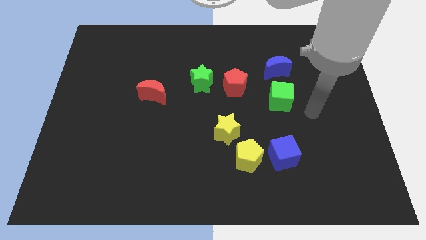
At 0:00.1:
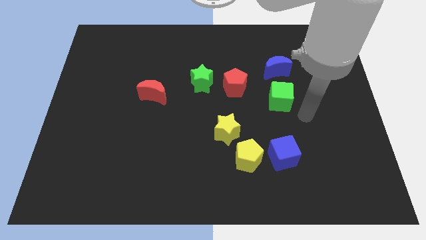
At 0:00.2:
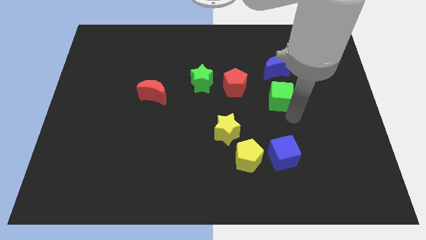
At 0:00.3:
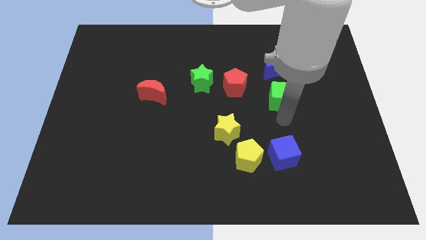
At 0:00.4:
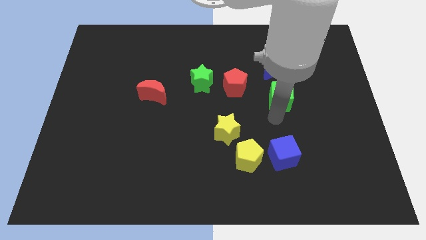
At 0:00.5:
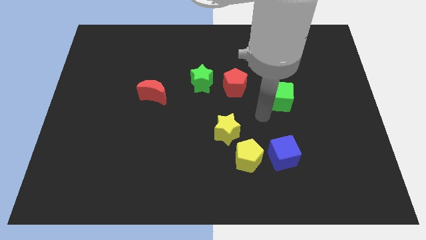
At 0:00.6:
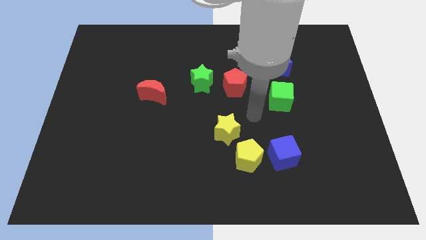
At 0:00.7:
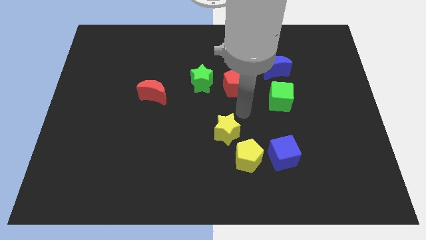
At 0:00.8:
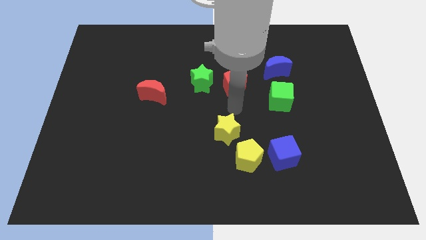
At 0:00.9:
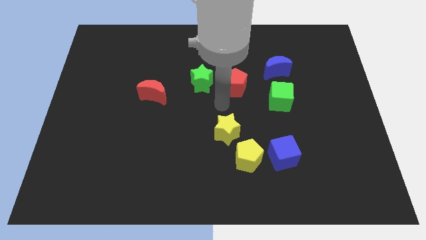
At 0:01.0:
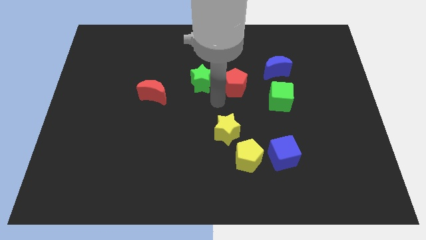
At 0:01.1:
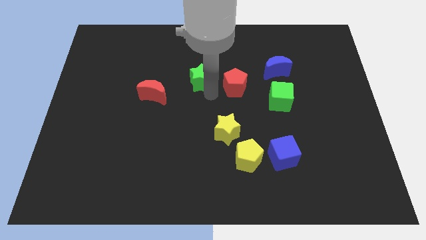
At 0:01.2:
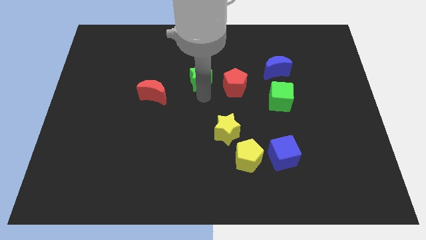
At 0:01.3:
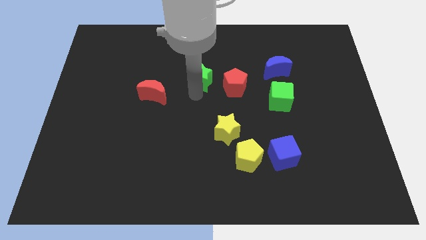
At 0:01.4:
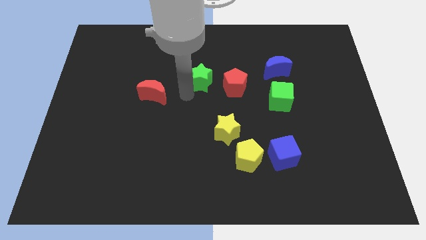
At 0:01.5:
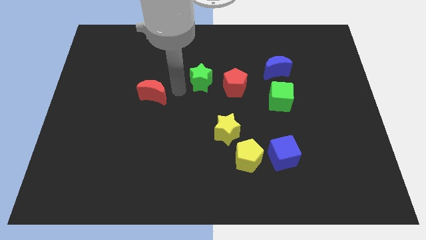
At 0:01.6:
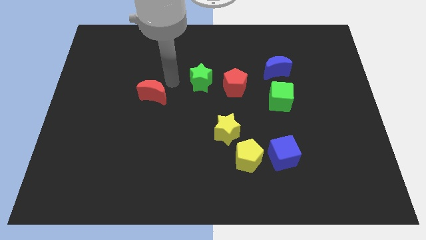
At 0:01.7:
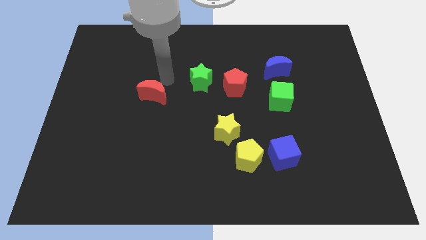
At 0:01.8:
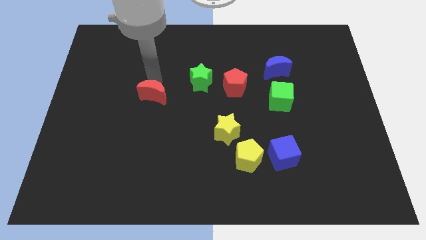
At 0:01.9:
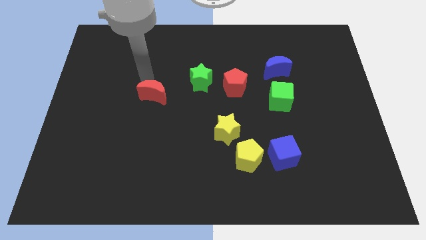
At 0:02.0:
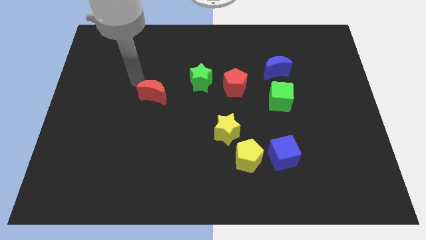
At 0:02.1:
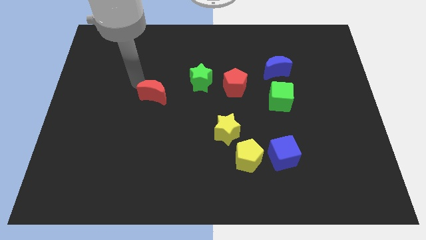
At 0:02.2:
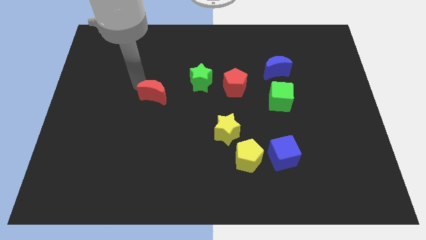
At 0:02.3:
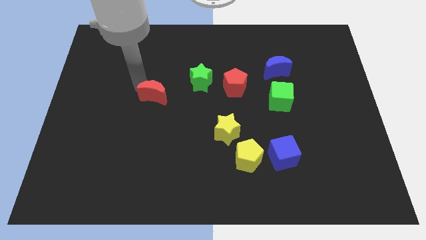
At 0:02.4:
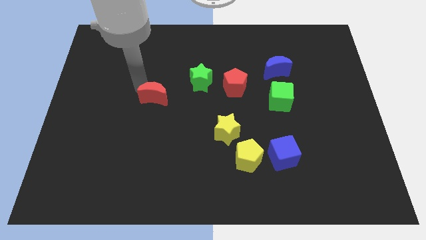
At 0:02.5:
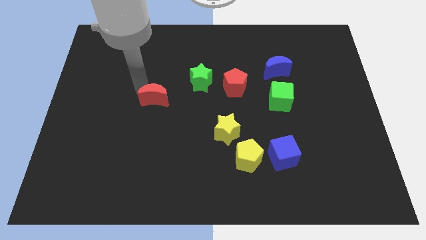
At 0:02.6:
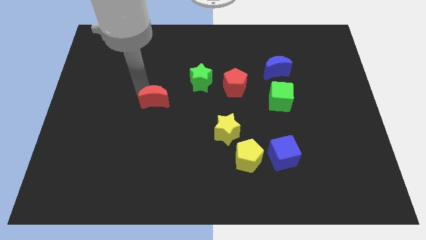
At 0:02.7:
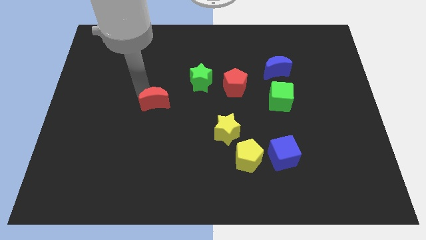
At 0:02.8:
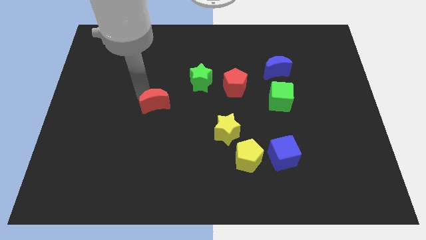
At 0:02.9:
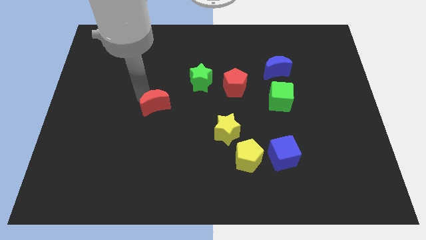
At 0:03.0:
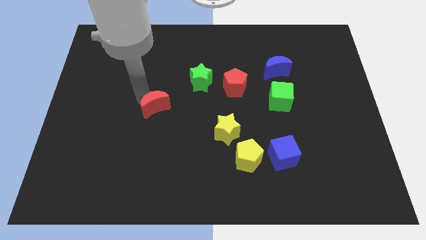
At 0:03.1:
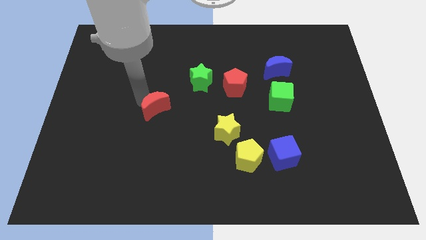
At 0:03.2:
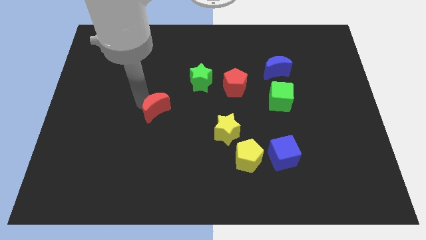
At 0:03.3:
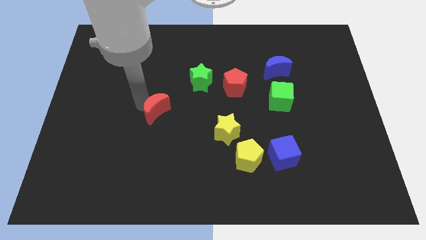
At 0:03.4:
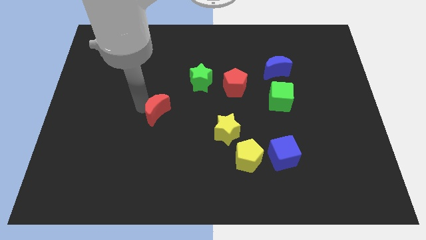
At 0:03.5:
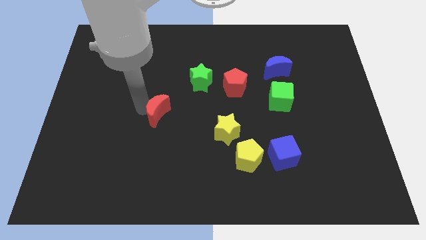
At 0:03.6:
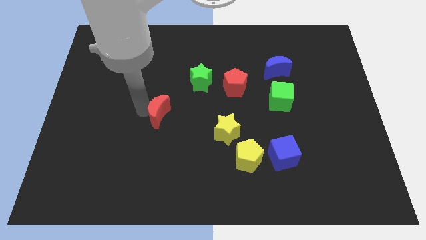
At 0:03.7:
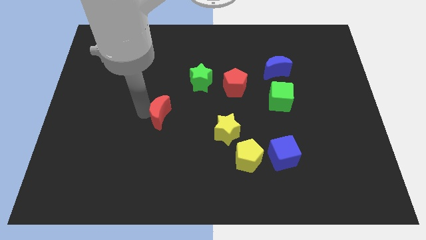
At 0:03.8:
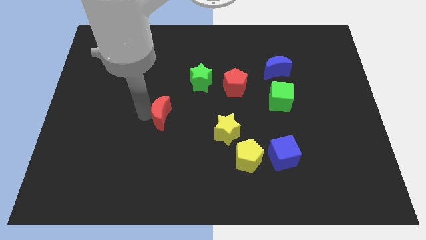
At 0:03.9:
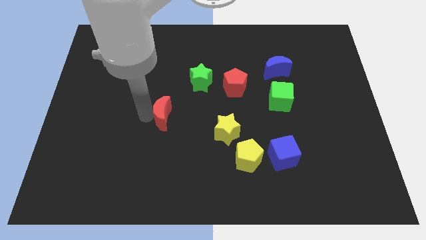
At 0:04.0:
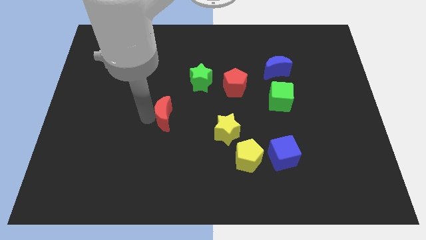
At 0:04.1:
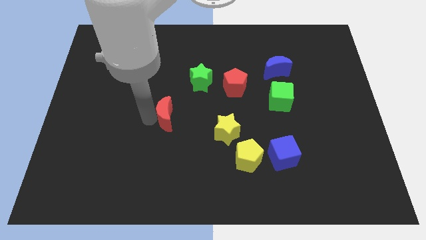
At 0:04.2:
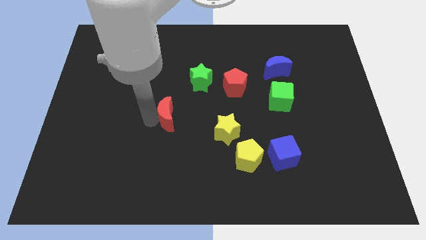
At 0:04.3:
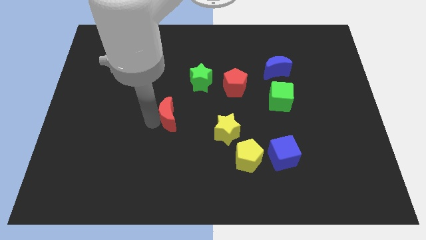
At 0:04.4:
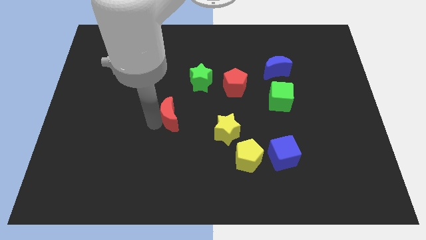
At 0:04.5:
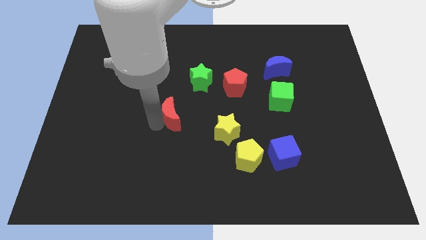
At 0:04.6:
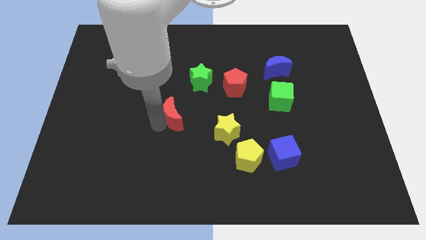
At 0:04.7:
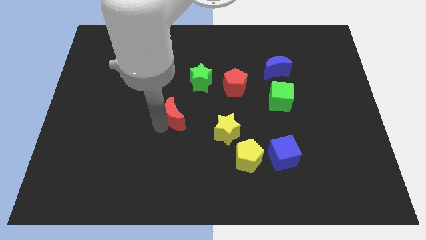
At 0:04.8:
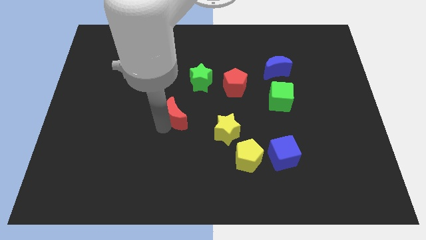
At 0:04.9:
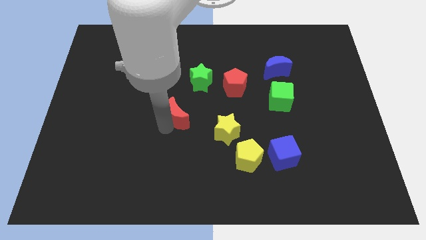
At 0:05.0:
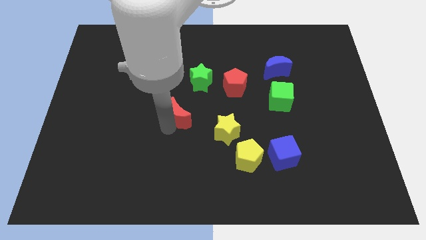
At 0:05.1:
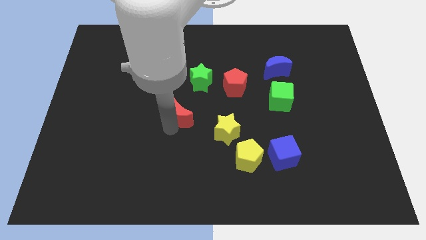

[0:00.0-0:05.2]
move the red moon to the bottom of the green star

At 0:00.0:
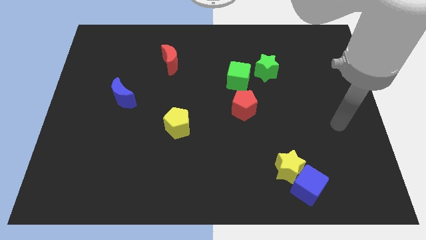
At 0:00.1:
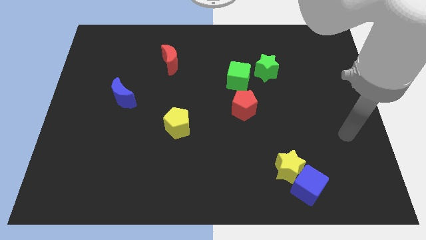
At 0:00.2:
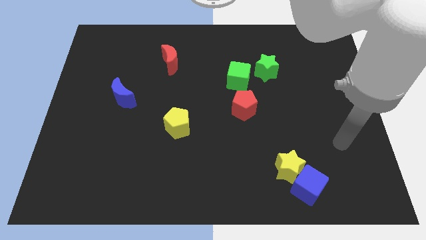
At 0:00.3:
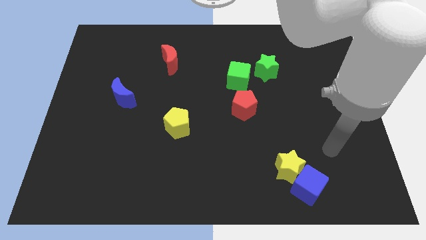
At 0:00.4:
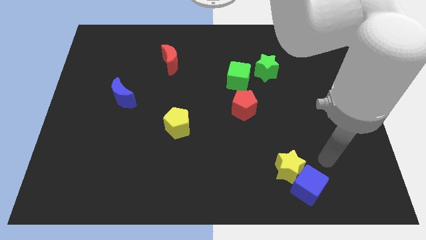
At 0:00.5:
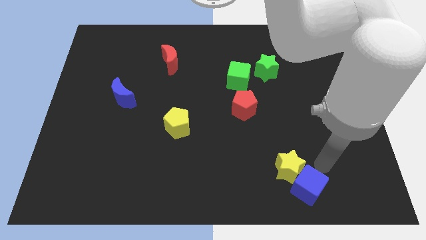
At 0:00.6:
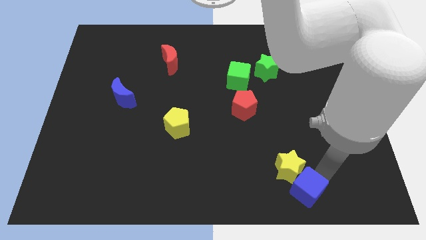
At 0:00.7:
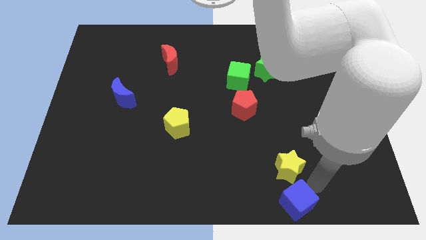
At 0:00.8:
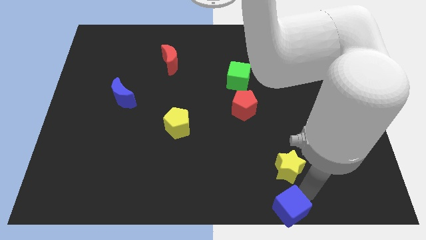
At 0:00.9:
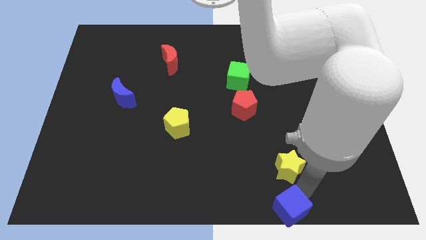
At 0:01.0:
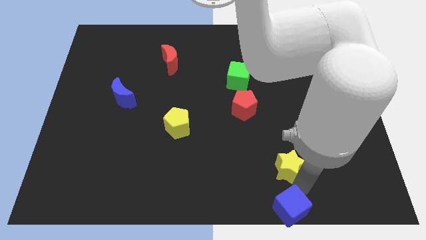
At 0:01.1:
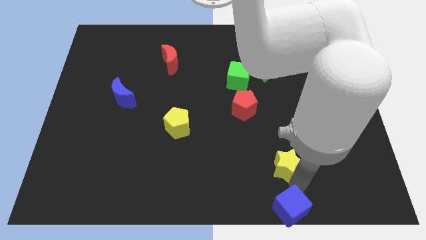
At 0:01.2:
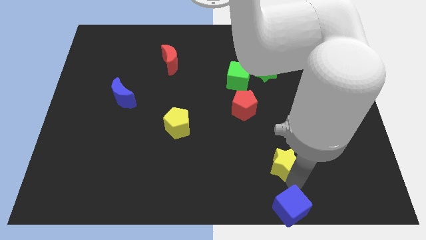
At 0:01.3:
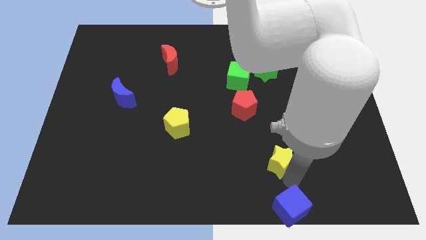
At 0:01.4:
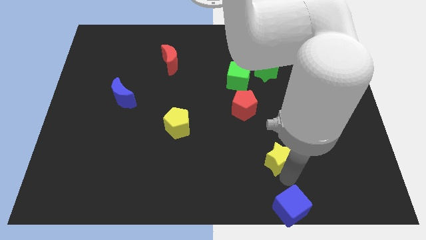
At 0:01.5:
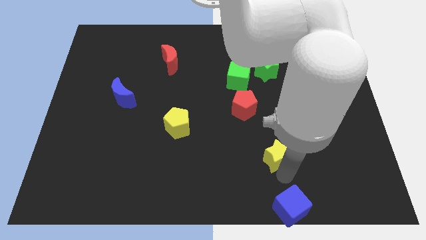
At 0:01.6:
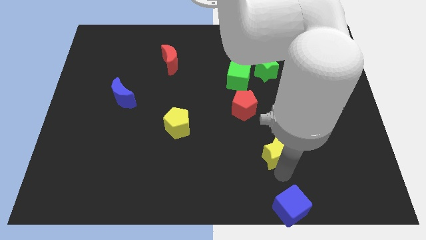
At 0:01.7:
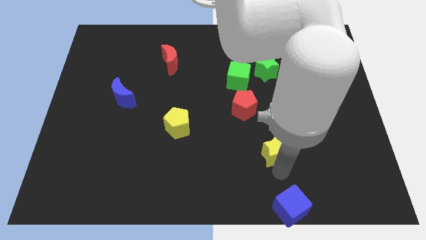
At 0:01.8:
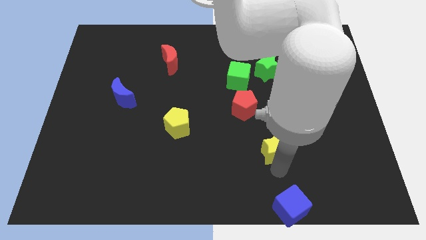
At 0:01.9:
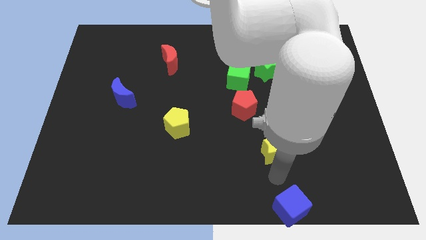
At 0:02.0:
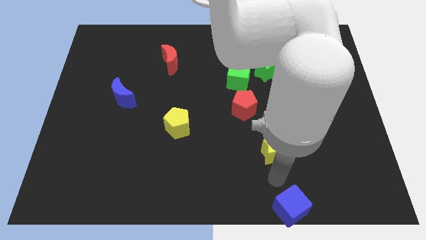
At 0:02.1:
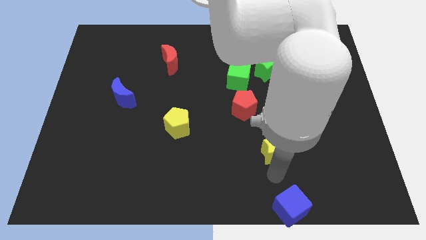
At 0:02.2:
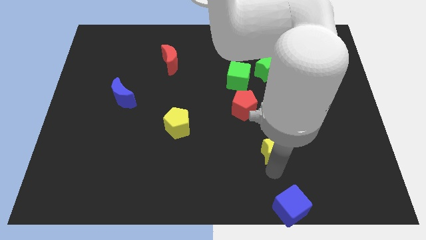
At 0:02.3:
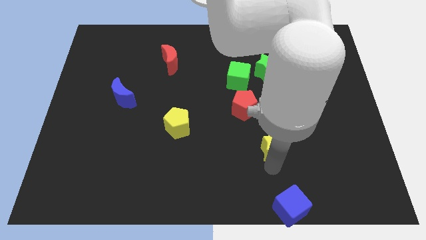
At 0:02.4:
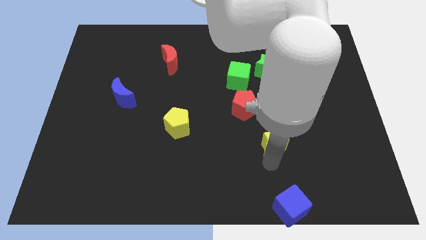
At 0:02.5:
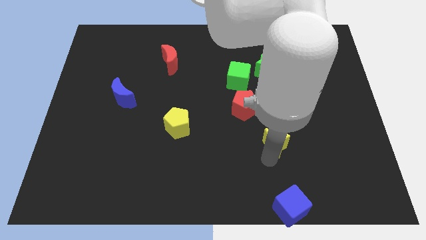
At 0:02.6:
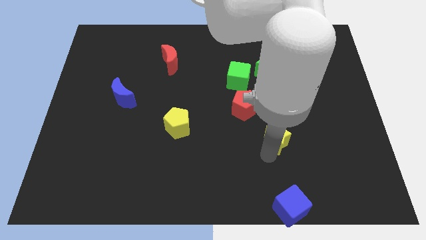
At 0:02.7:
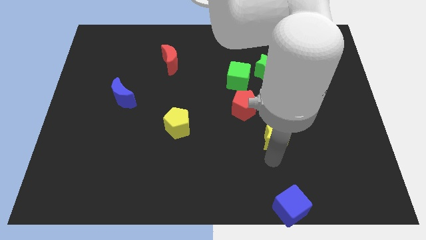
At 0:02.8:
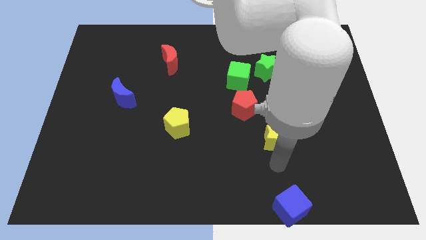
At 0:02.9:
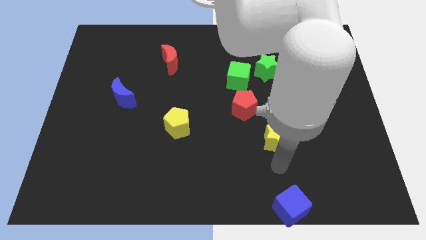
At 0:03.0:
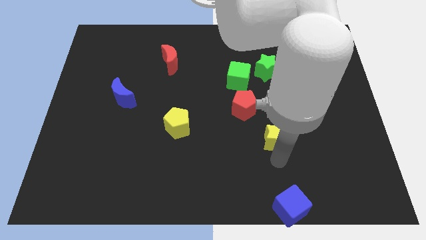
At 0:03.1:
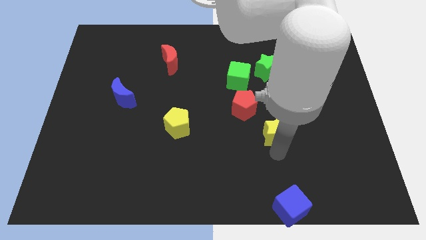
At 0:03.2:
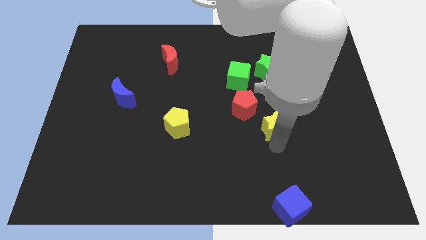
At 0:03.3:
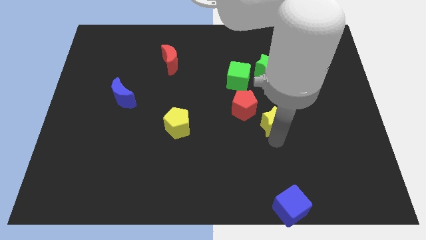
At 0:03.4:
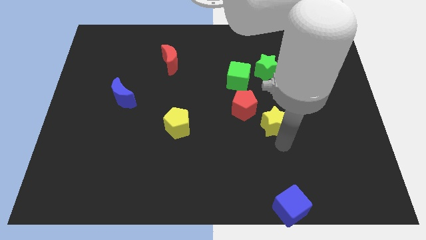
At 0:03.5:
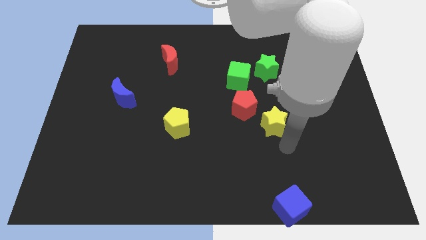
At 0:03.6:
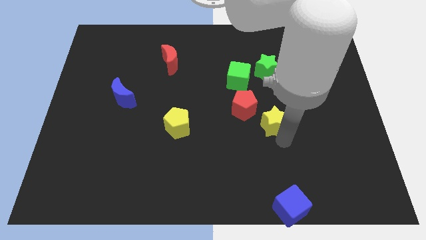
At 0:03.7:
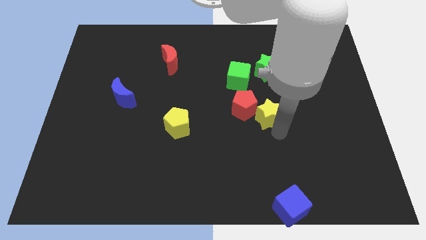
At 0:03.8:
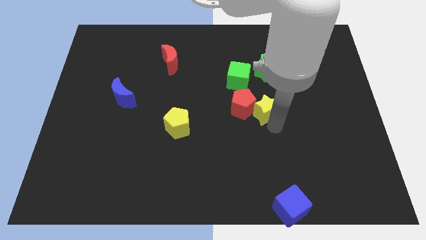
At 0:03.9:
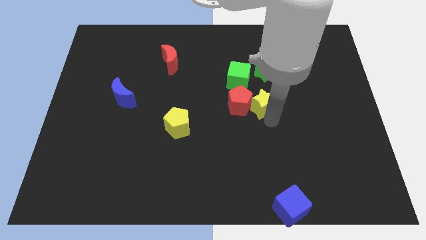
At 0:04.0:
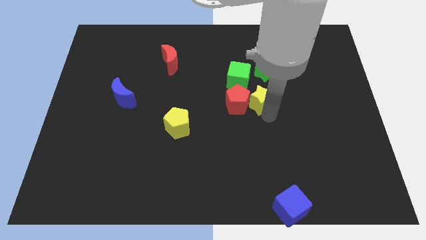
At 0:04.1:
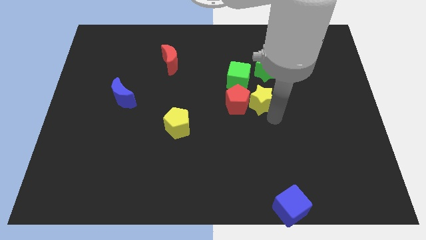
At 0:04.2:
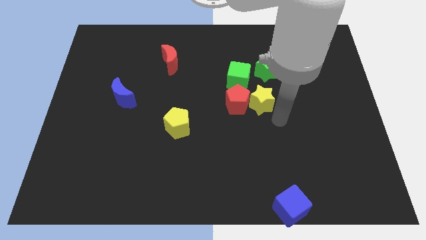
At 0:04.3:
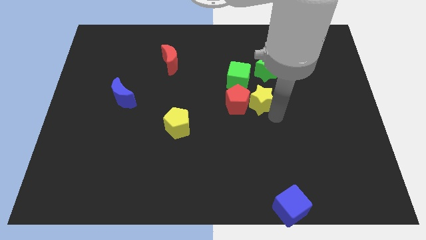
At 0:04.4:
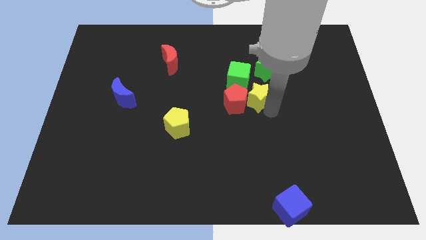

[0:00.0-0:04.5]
push the yellow star diagonally down and to the left of the green star
